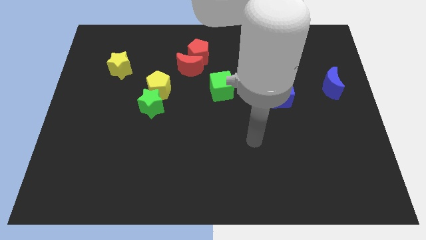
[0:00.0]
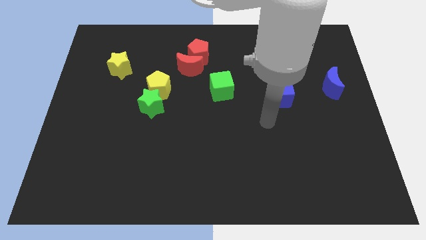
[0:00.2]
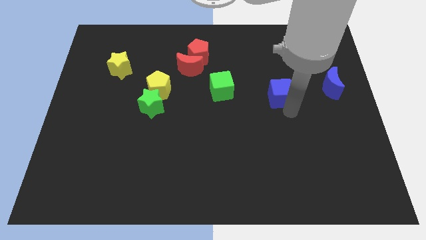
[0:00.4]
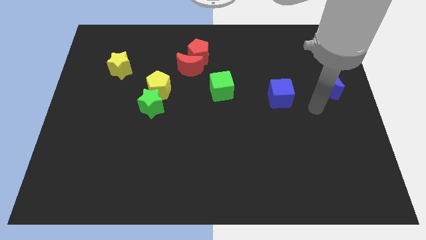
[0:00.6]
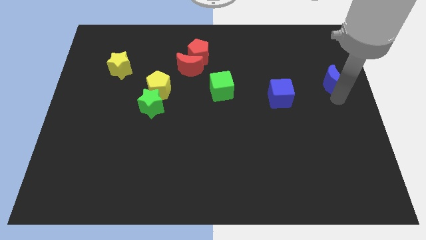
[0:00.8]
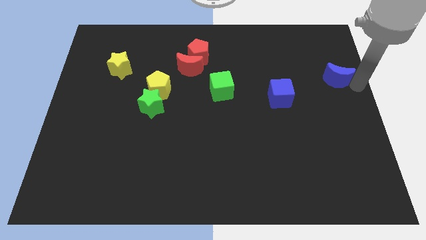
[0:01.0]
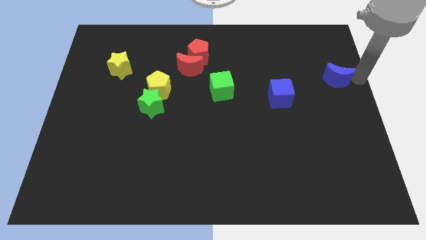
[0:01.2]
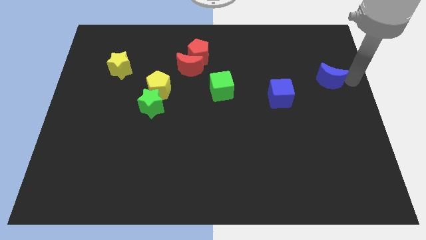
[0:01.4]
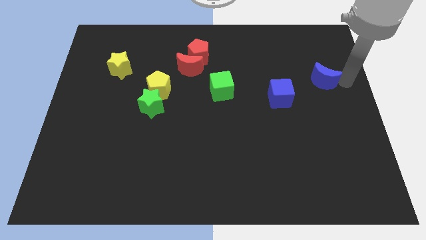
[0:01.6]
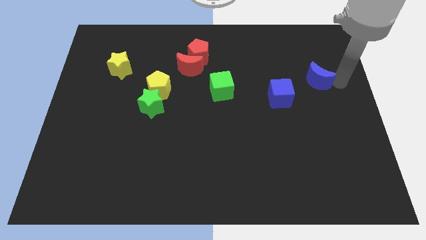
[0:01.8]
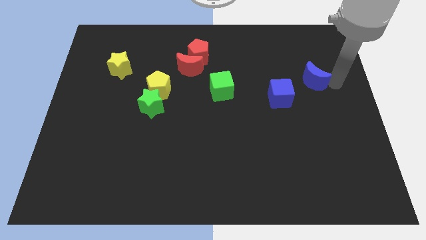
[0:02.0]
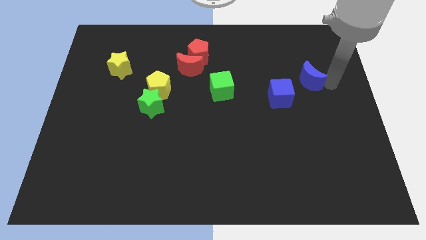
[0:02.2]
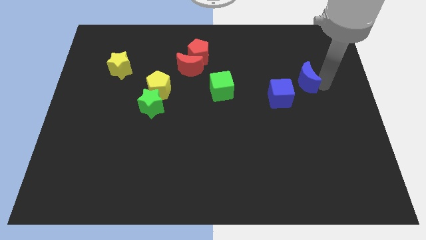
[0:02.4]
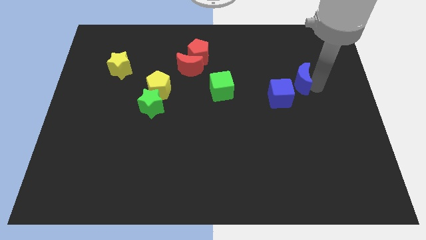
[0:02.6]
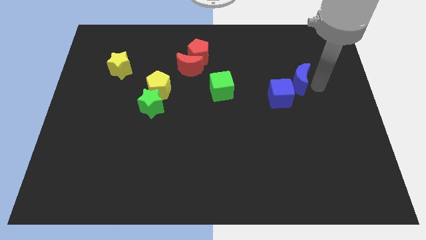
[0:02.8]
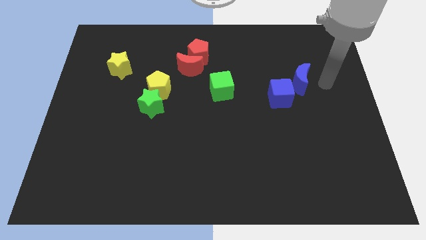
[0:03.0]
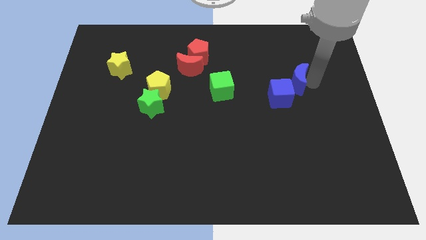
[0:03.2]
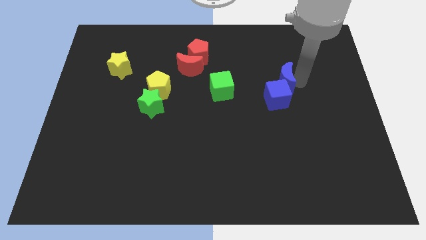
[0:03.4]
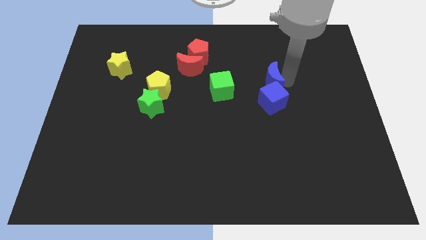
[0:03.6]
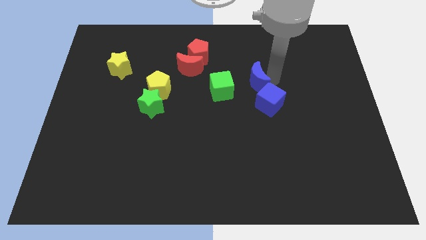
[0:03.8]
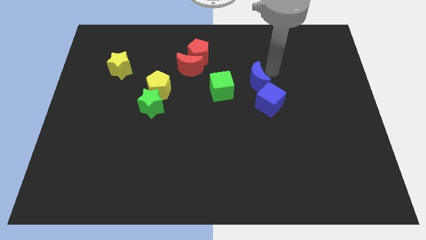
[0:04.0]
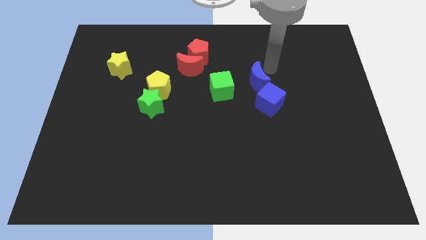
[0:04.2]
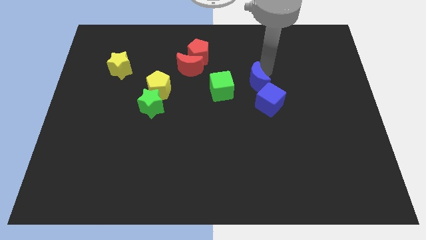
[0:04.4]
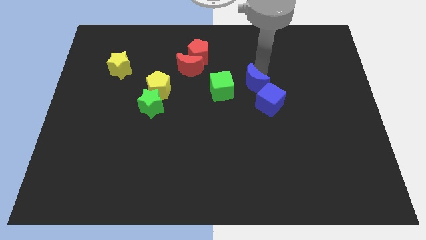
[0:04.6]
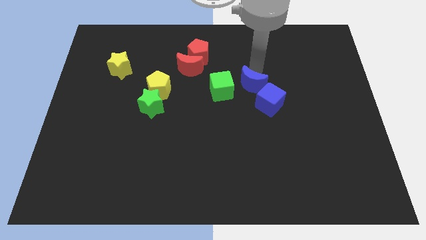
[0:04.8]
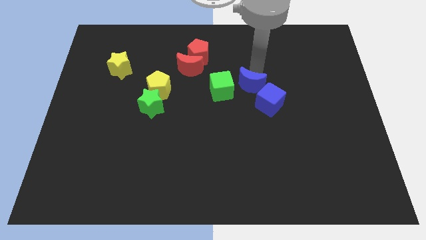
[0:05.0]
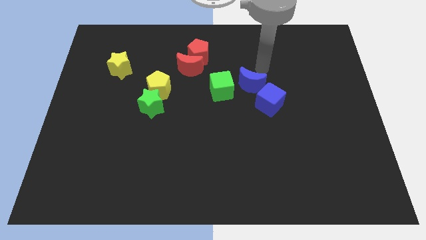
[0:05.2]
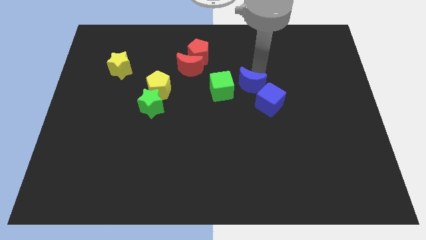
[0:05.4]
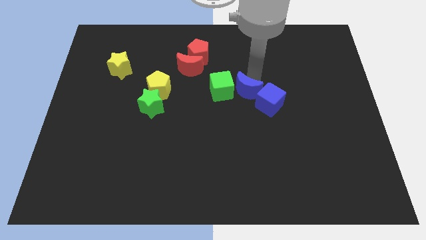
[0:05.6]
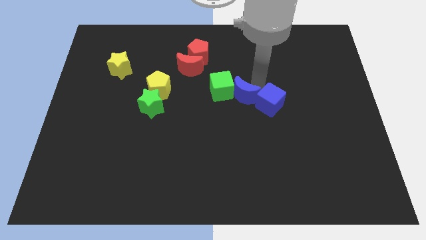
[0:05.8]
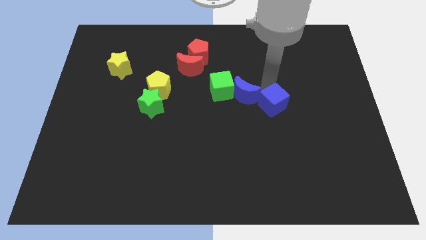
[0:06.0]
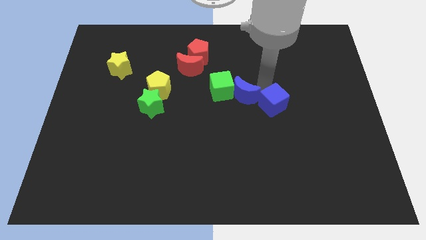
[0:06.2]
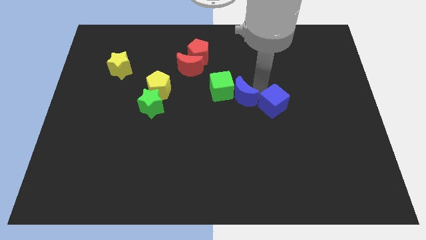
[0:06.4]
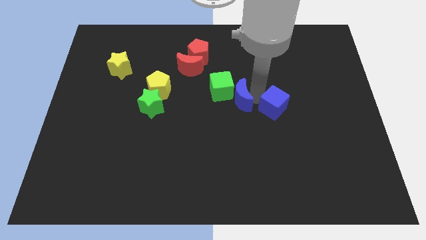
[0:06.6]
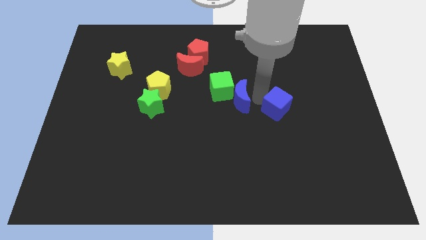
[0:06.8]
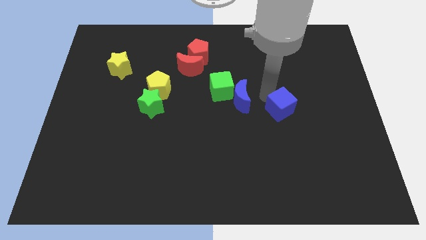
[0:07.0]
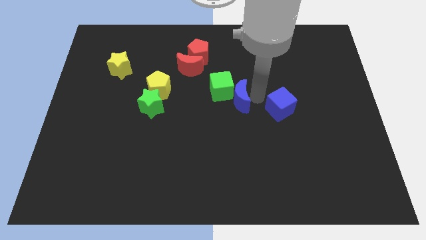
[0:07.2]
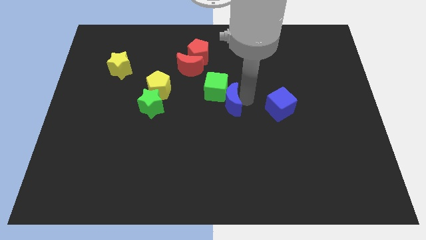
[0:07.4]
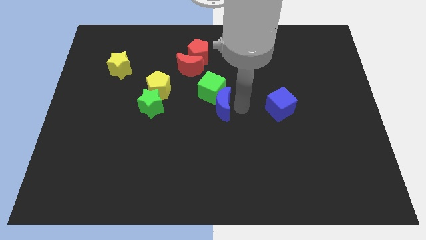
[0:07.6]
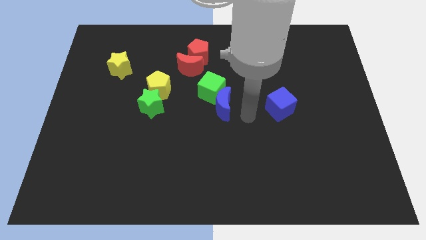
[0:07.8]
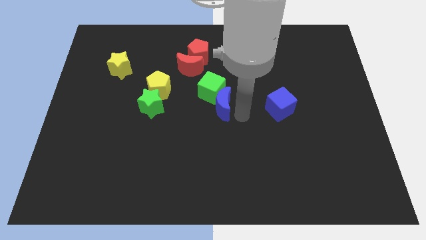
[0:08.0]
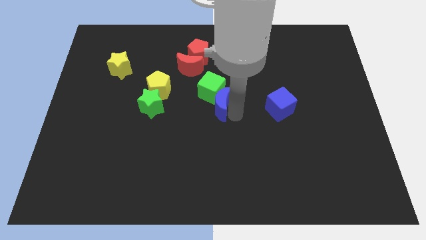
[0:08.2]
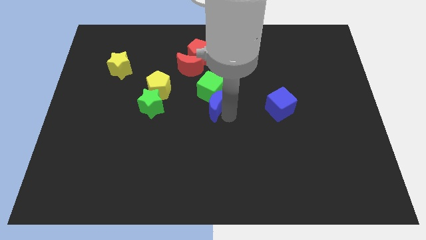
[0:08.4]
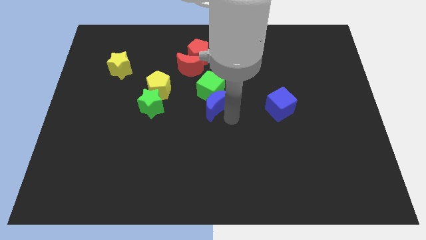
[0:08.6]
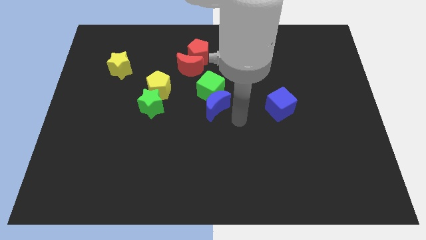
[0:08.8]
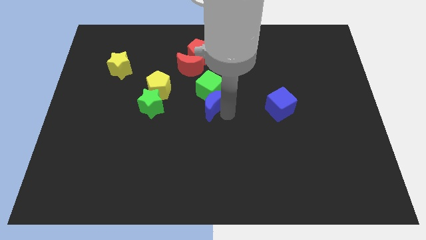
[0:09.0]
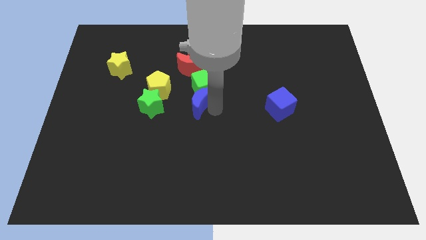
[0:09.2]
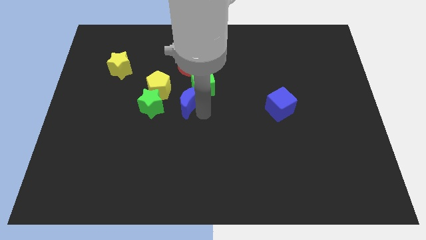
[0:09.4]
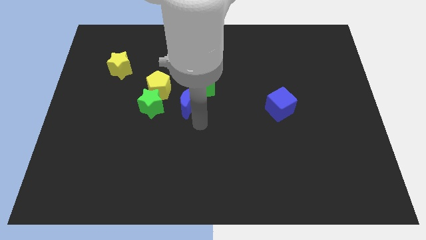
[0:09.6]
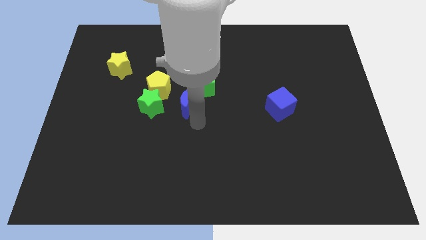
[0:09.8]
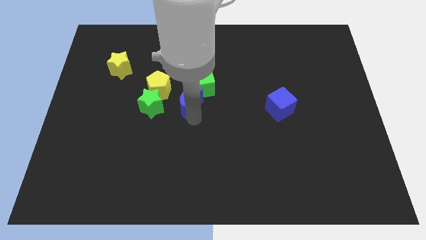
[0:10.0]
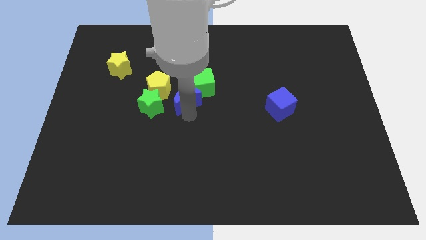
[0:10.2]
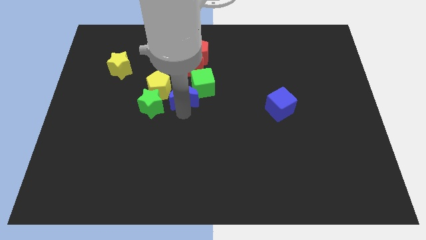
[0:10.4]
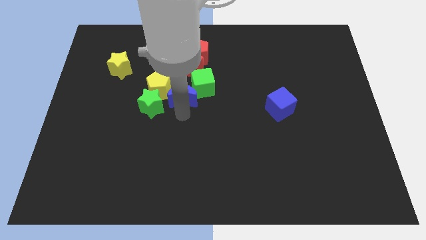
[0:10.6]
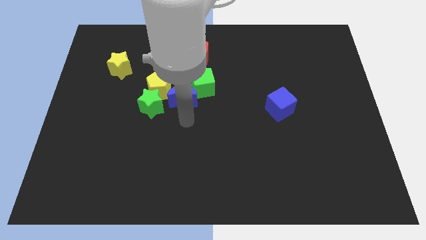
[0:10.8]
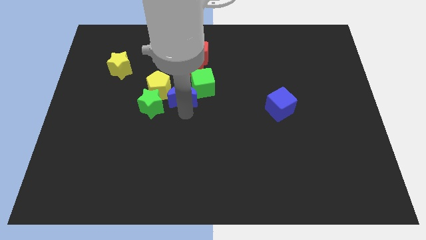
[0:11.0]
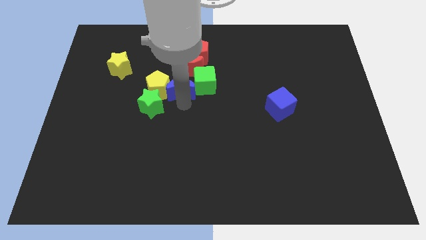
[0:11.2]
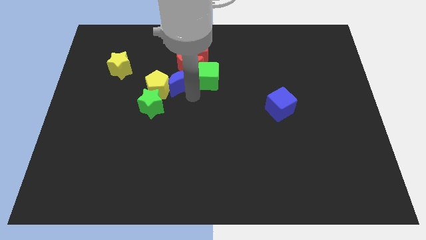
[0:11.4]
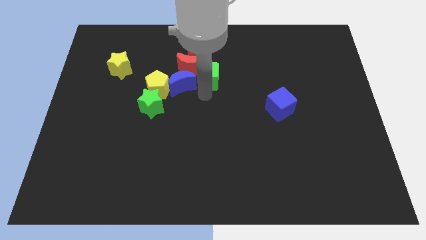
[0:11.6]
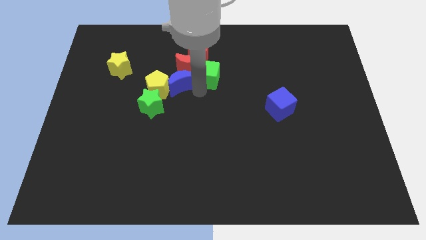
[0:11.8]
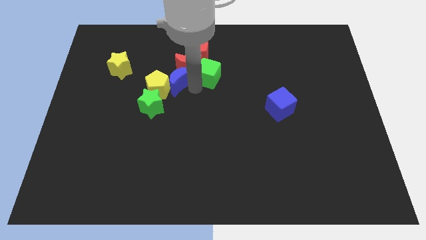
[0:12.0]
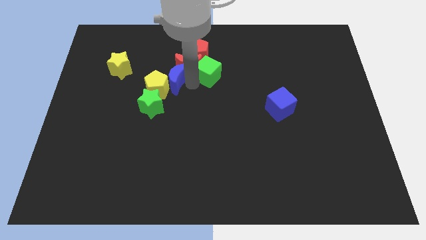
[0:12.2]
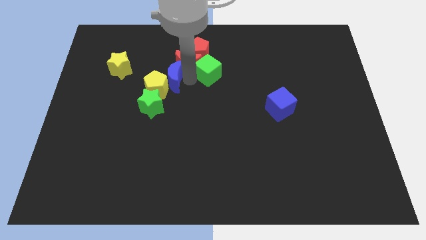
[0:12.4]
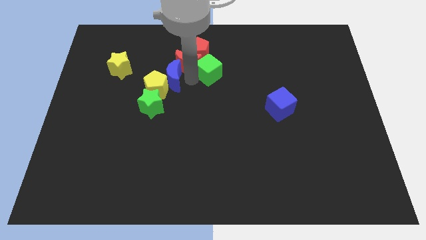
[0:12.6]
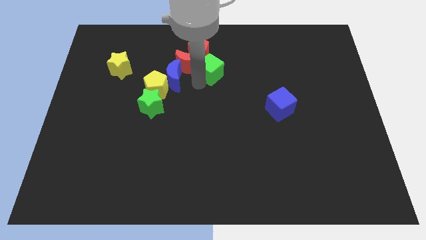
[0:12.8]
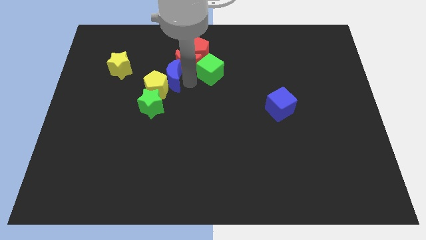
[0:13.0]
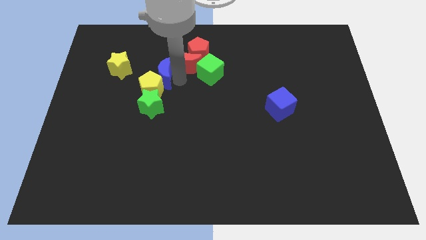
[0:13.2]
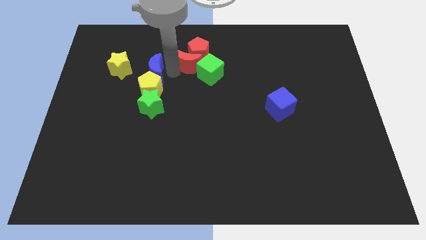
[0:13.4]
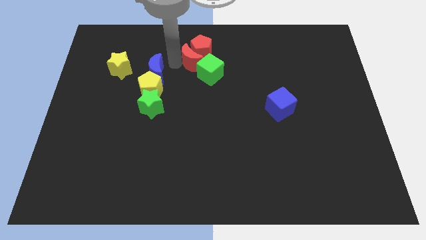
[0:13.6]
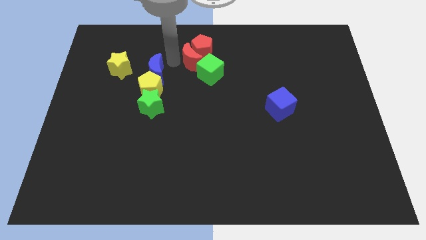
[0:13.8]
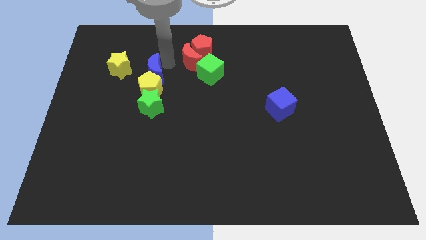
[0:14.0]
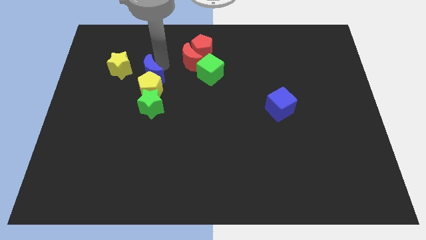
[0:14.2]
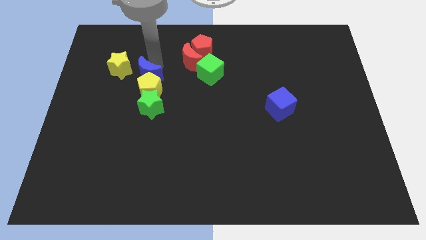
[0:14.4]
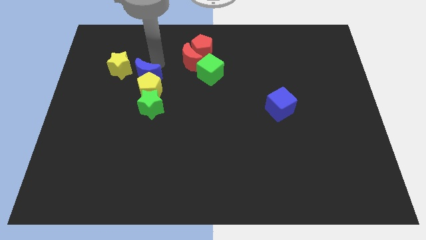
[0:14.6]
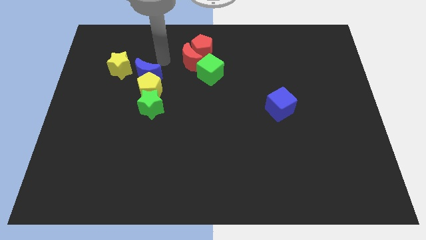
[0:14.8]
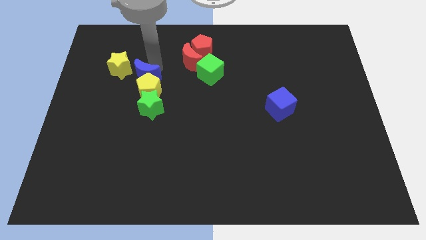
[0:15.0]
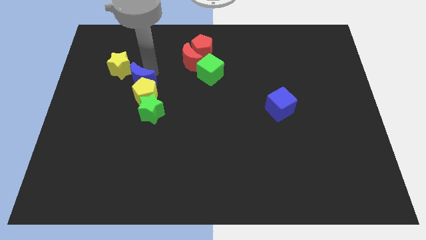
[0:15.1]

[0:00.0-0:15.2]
put the blue moon to the top left of the green star

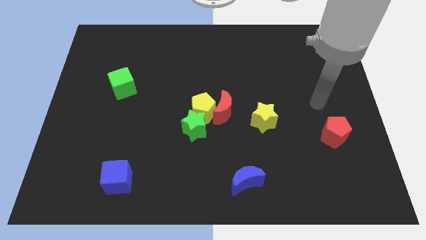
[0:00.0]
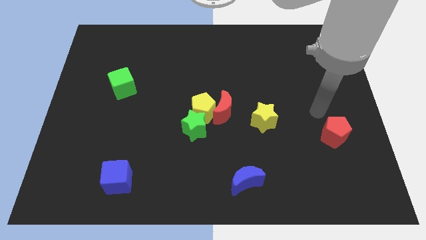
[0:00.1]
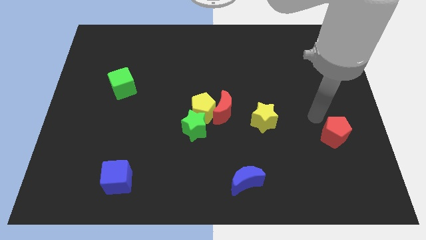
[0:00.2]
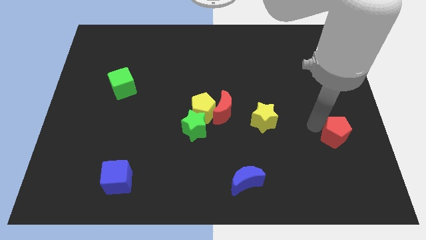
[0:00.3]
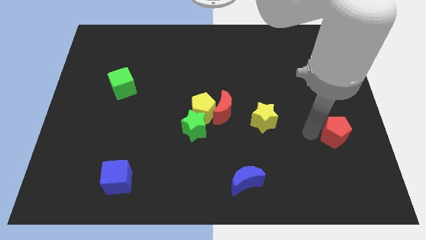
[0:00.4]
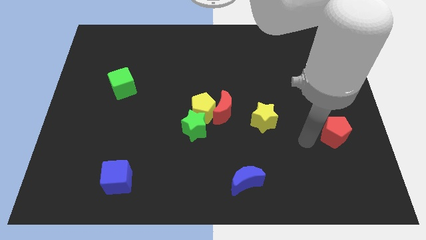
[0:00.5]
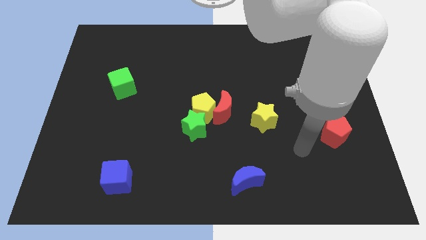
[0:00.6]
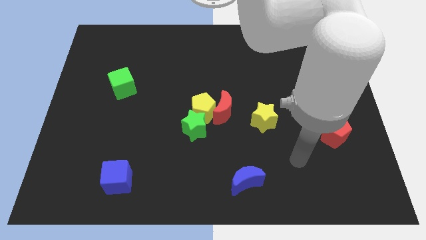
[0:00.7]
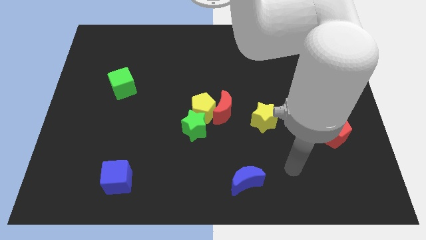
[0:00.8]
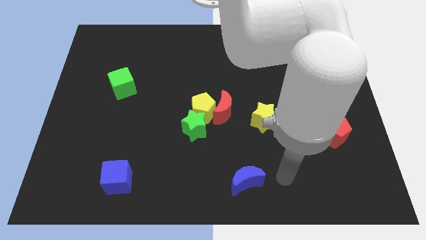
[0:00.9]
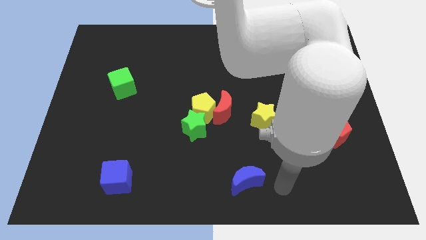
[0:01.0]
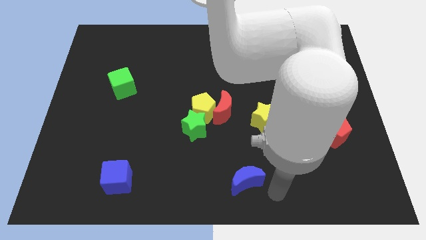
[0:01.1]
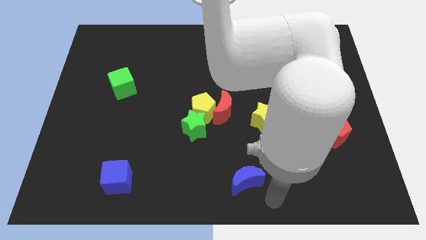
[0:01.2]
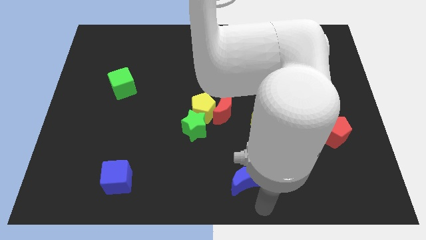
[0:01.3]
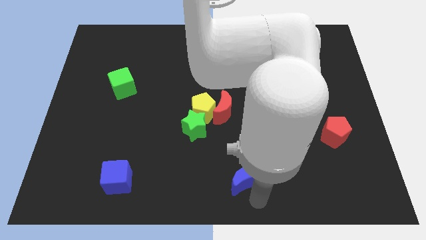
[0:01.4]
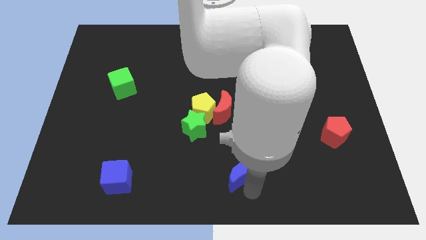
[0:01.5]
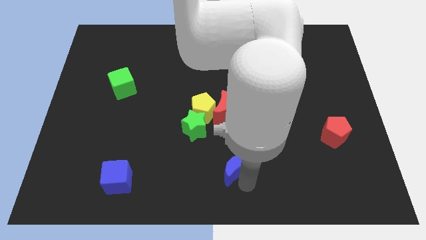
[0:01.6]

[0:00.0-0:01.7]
slide the blue moon to the bottom side of the red moon
